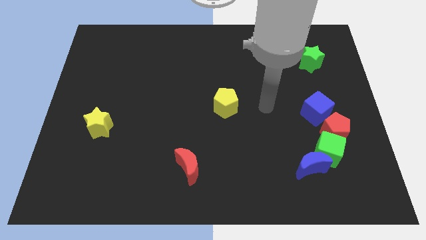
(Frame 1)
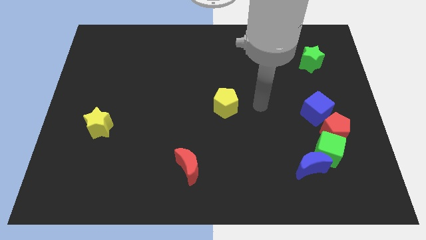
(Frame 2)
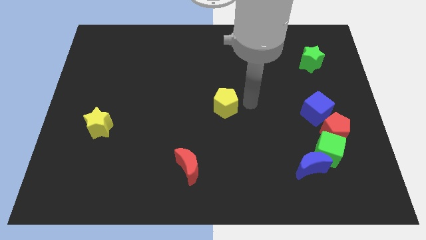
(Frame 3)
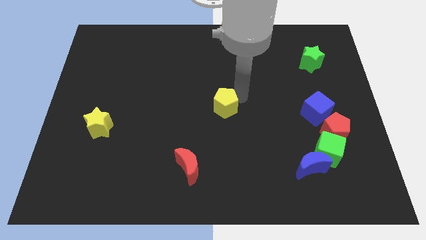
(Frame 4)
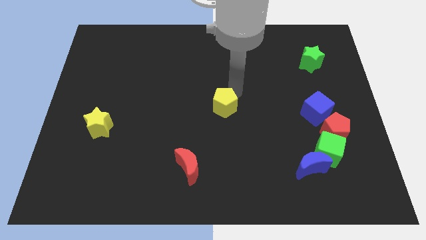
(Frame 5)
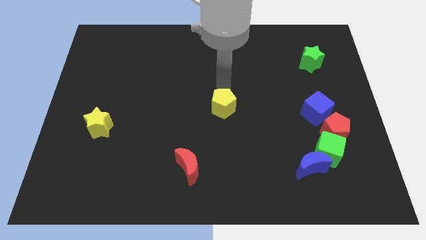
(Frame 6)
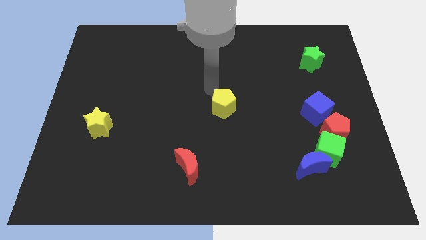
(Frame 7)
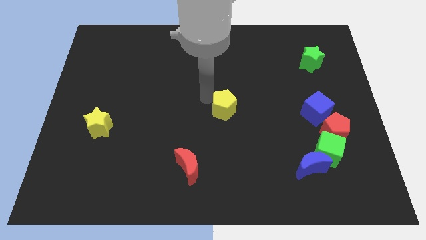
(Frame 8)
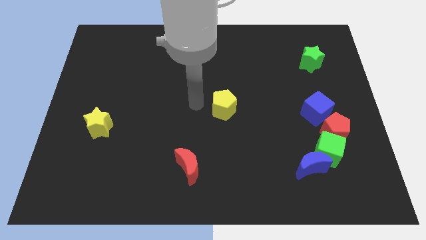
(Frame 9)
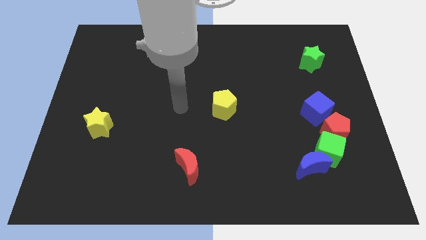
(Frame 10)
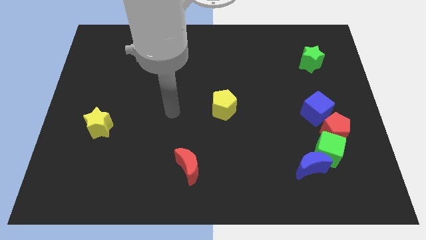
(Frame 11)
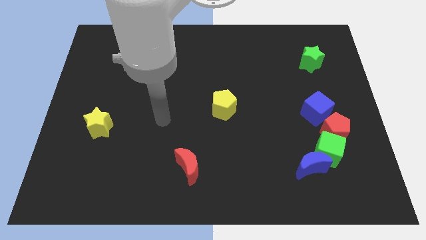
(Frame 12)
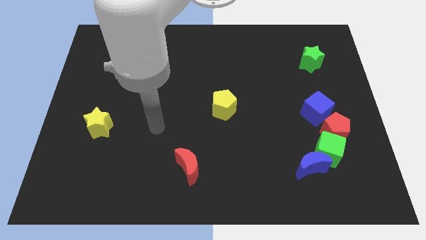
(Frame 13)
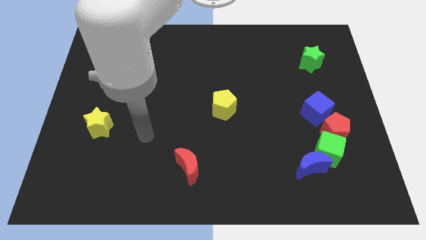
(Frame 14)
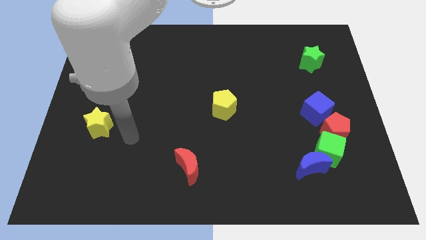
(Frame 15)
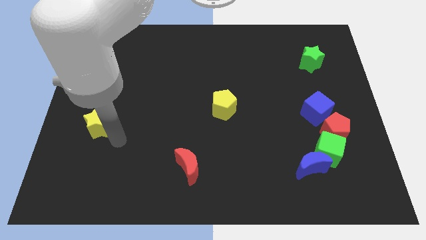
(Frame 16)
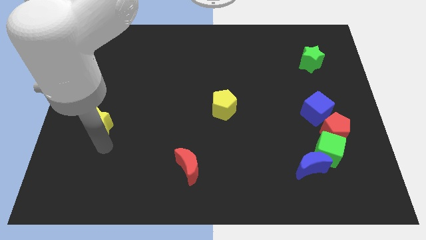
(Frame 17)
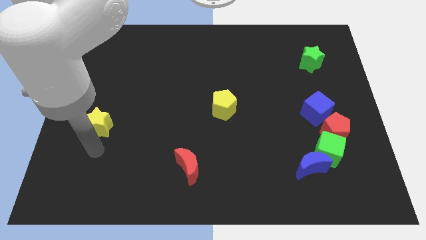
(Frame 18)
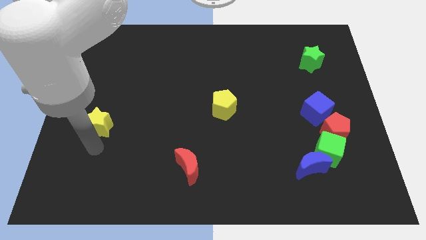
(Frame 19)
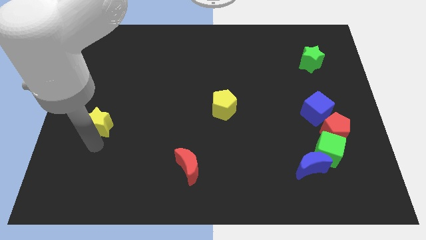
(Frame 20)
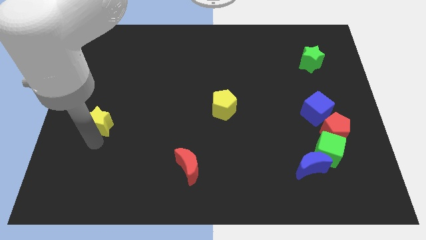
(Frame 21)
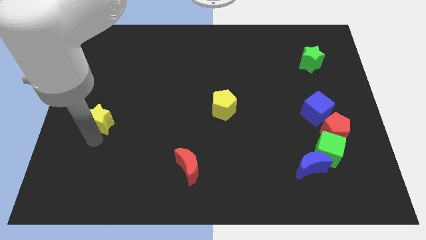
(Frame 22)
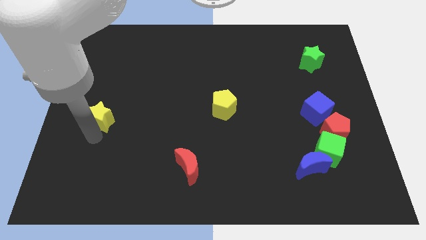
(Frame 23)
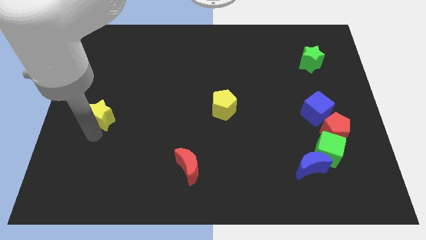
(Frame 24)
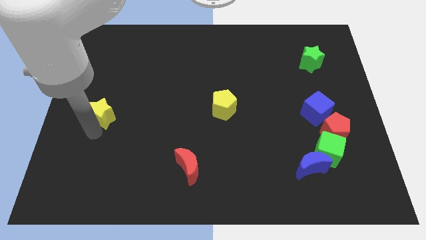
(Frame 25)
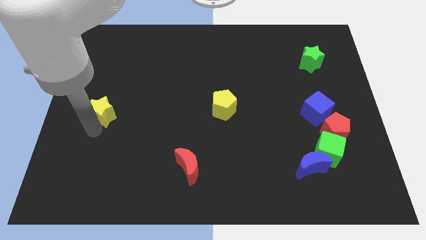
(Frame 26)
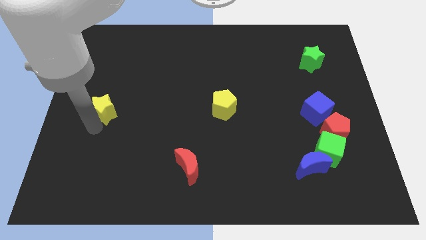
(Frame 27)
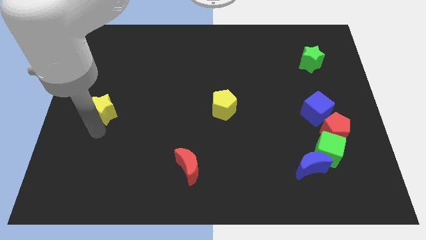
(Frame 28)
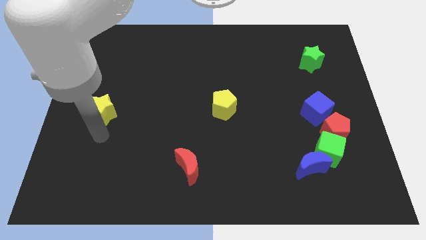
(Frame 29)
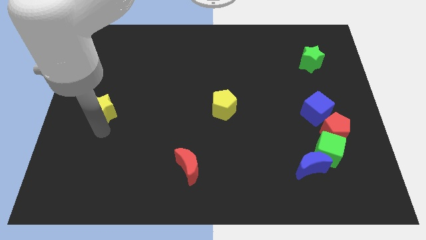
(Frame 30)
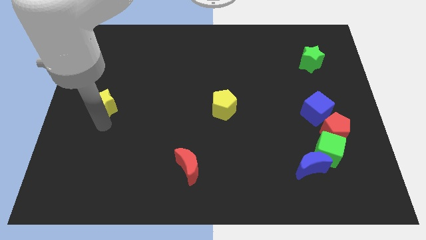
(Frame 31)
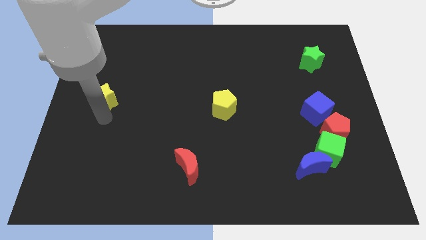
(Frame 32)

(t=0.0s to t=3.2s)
move the yellow star up a little bit

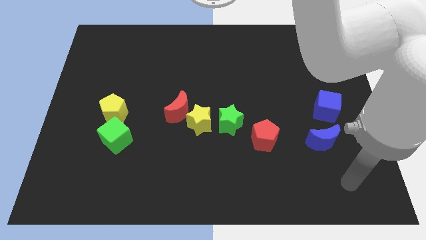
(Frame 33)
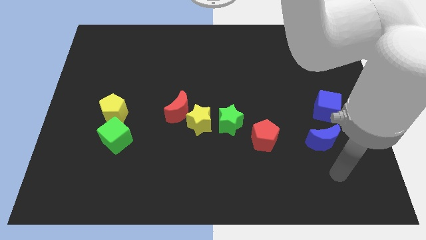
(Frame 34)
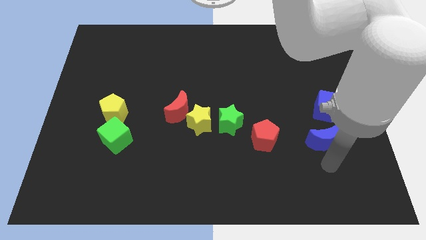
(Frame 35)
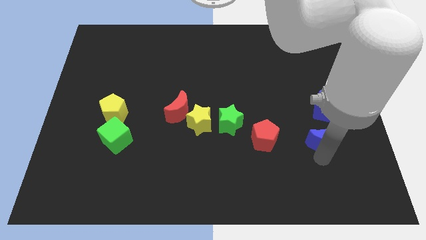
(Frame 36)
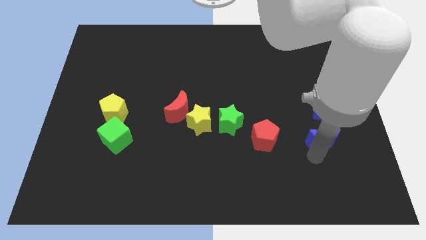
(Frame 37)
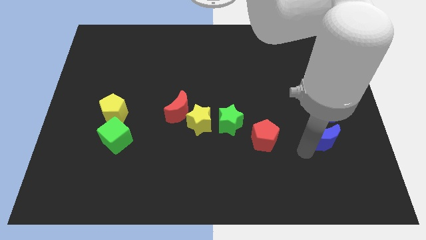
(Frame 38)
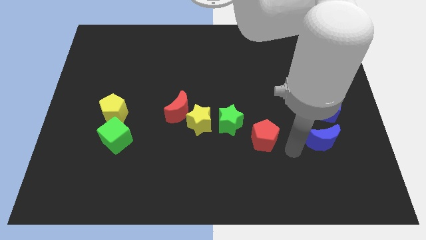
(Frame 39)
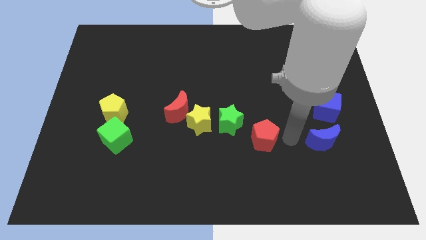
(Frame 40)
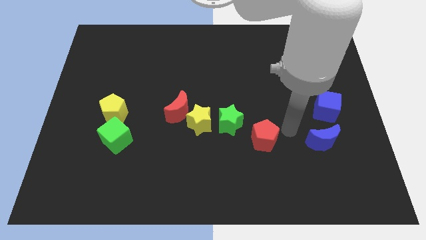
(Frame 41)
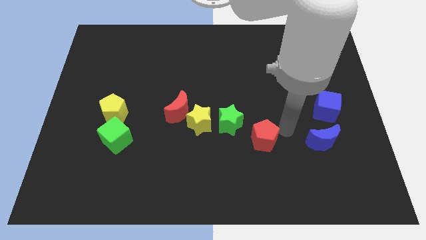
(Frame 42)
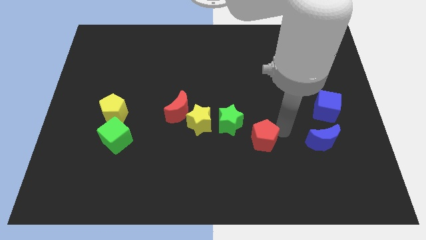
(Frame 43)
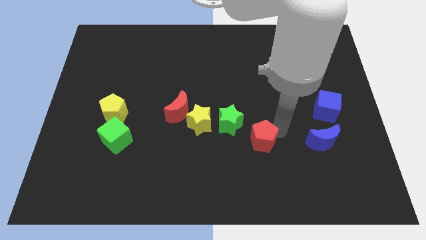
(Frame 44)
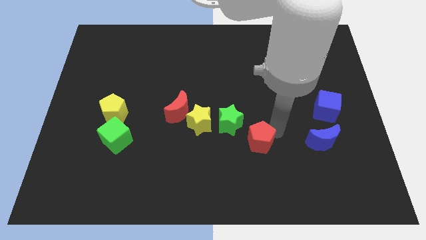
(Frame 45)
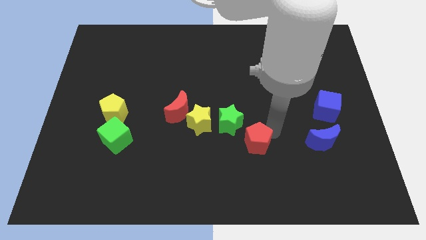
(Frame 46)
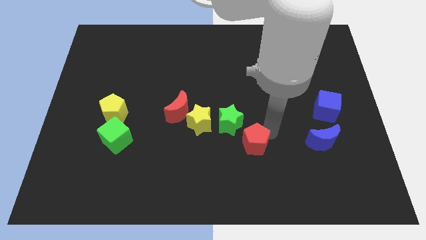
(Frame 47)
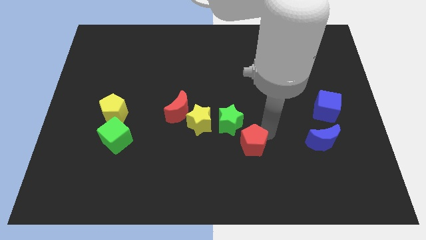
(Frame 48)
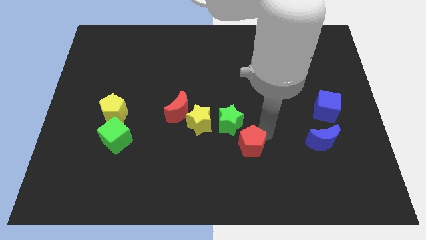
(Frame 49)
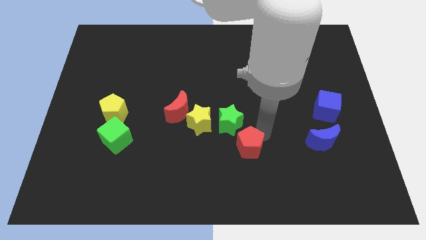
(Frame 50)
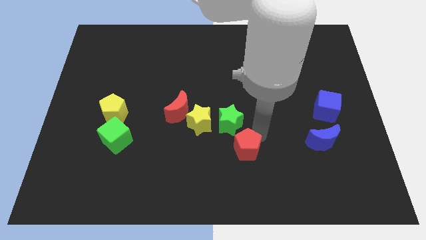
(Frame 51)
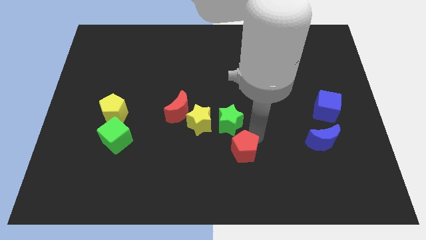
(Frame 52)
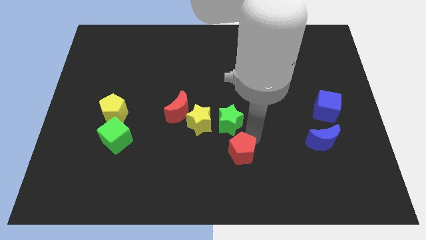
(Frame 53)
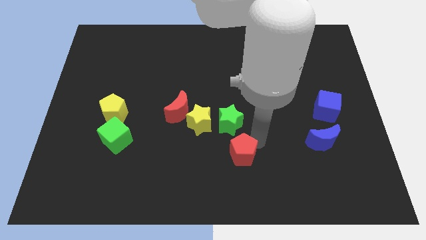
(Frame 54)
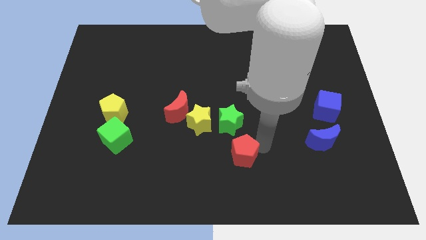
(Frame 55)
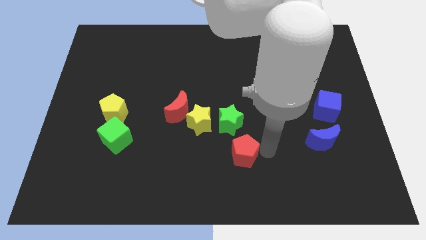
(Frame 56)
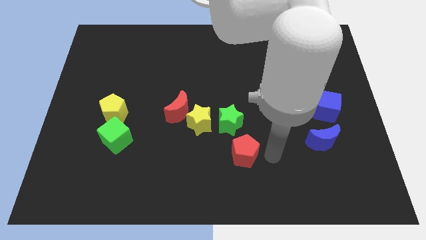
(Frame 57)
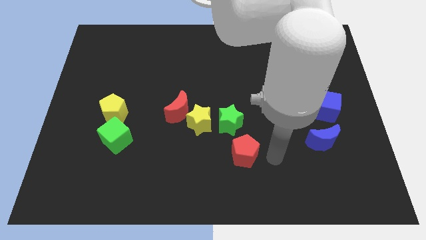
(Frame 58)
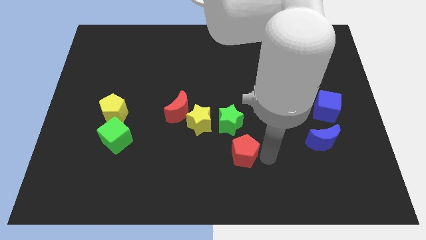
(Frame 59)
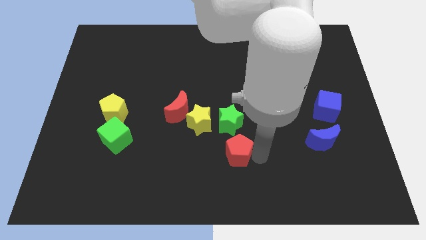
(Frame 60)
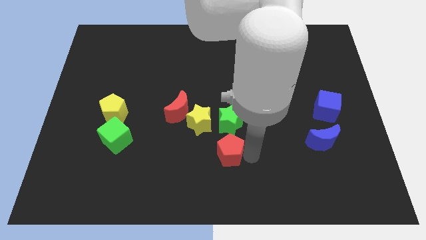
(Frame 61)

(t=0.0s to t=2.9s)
slightly push the red pentagon left

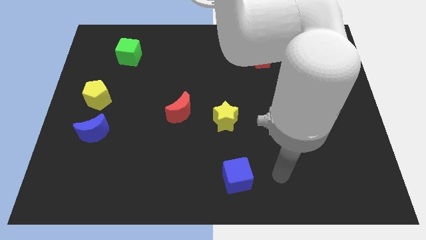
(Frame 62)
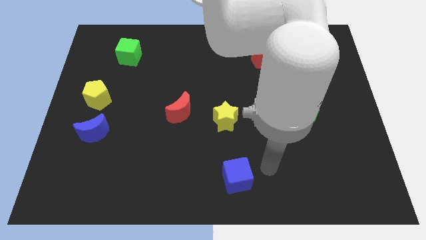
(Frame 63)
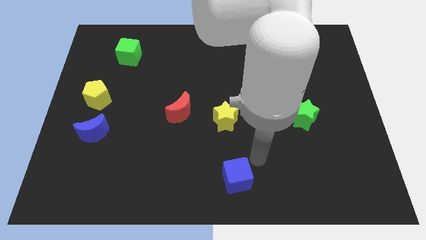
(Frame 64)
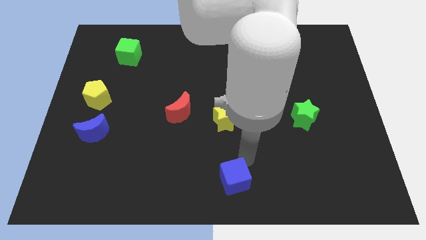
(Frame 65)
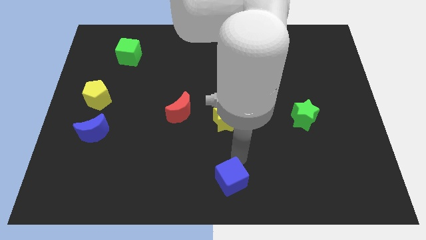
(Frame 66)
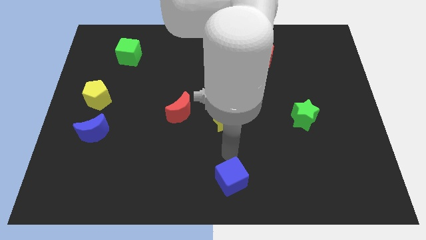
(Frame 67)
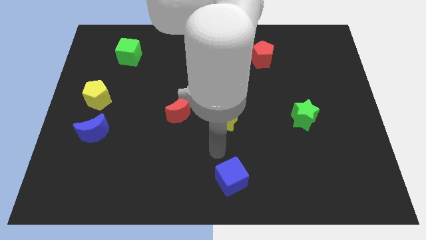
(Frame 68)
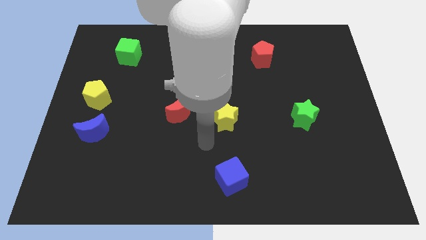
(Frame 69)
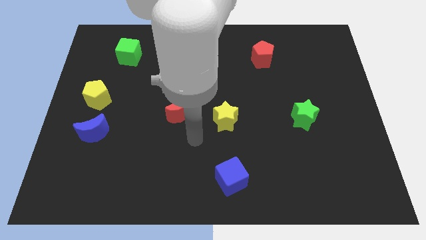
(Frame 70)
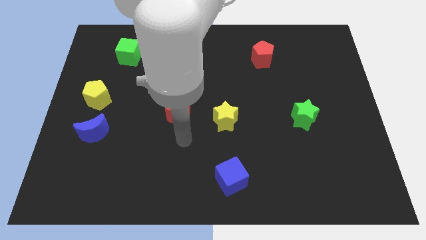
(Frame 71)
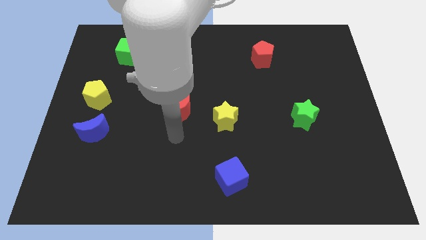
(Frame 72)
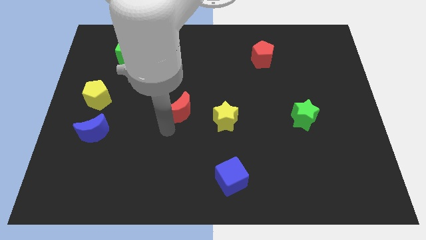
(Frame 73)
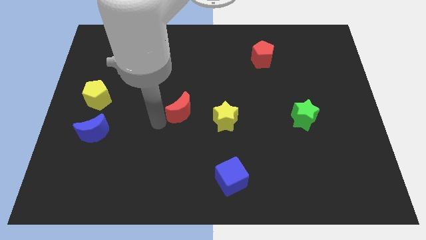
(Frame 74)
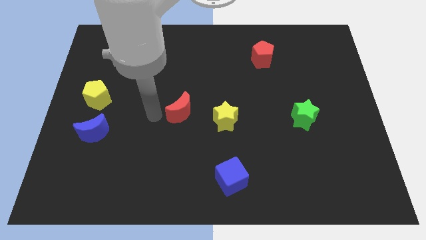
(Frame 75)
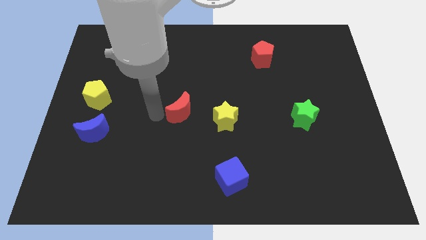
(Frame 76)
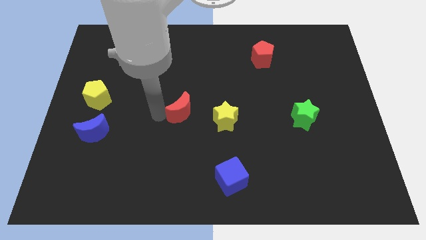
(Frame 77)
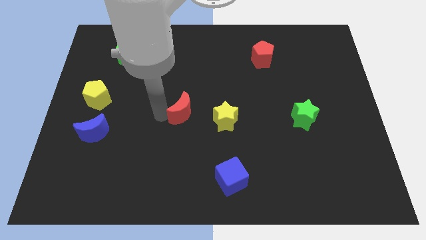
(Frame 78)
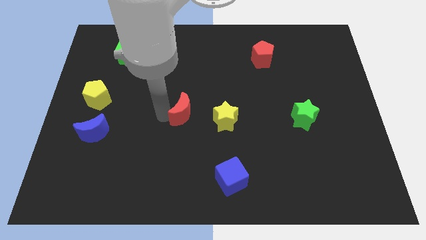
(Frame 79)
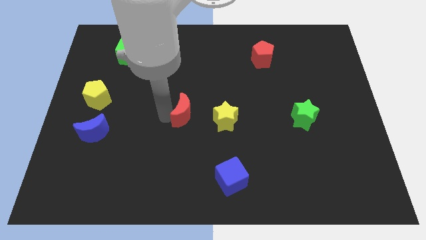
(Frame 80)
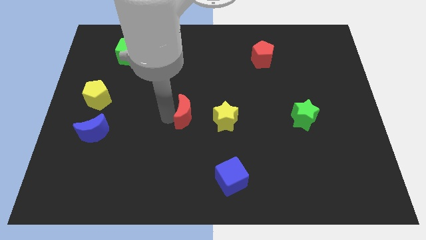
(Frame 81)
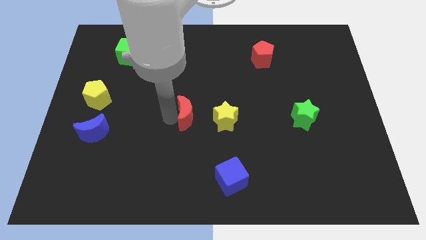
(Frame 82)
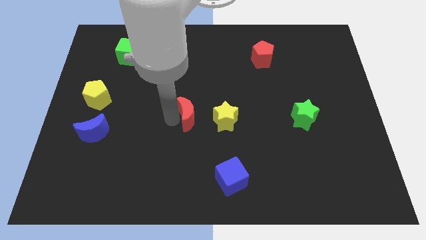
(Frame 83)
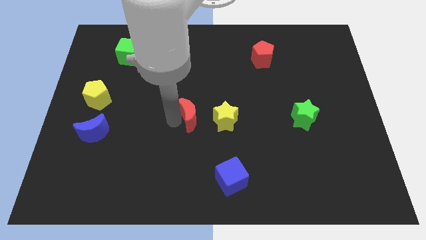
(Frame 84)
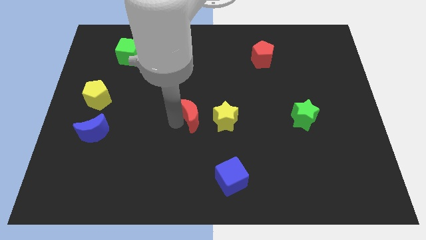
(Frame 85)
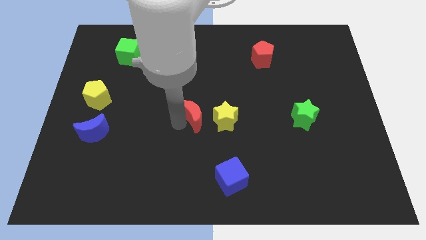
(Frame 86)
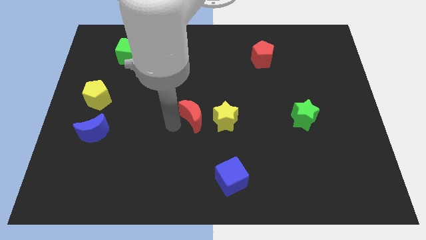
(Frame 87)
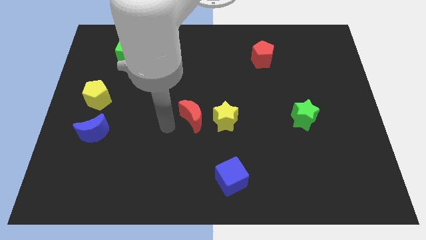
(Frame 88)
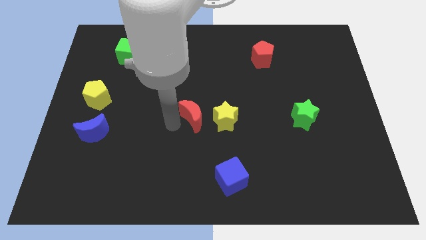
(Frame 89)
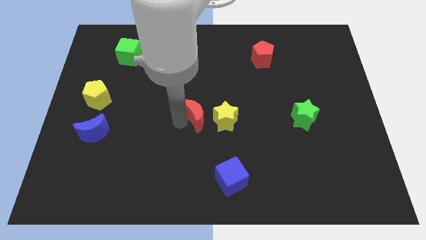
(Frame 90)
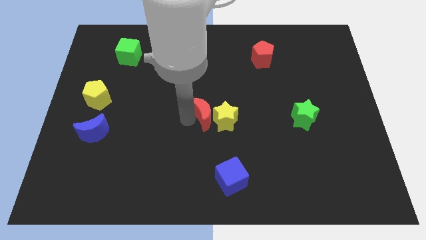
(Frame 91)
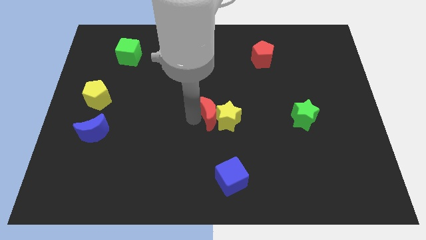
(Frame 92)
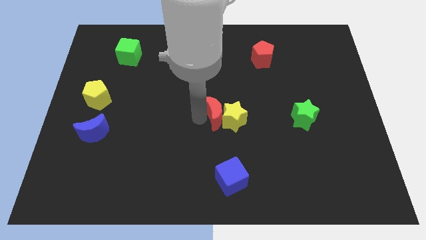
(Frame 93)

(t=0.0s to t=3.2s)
move the red moon to the right a bit
